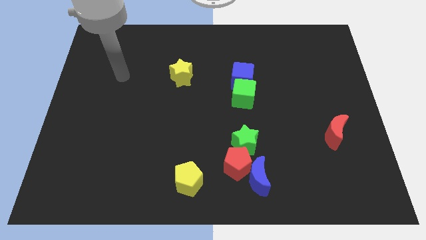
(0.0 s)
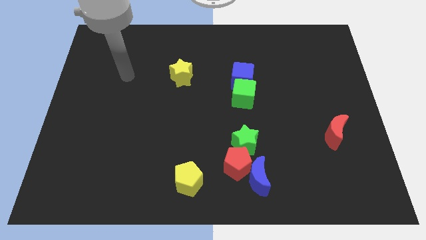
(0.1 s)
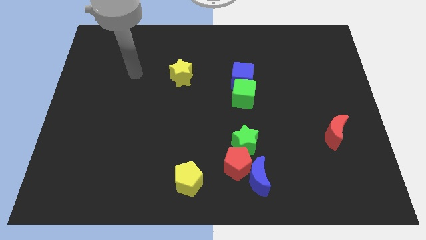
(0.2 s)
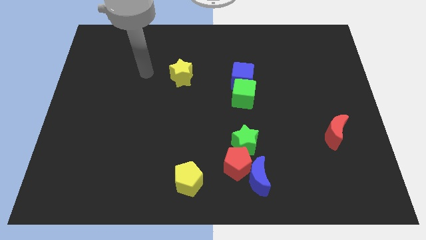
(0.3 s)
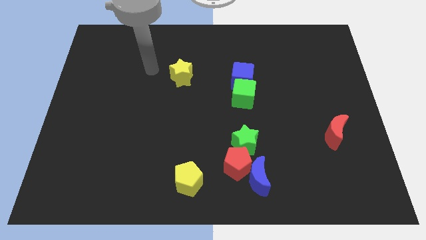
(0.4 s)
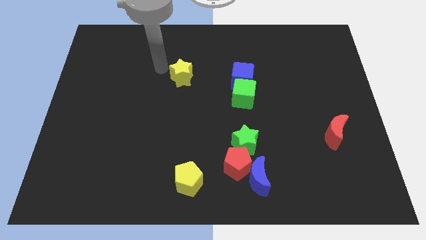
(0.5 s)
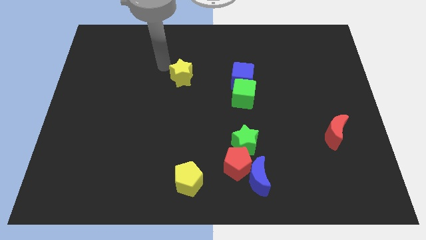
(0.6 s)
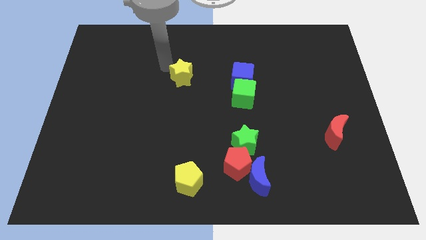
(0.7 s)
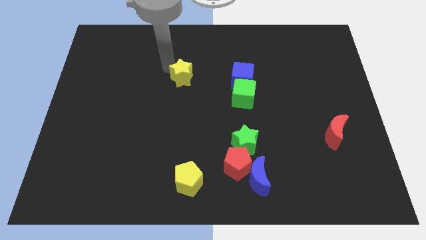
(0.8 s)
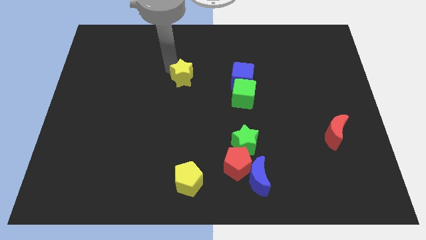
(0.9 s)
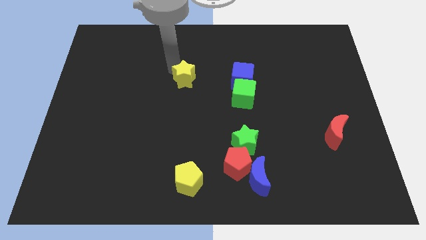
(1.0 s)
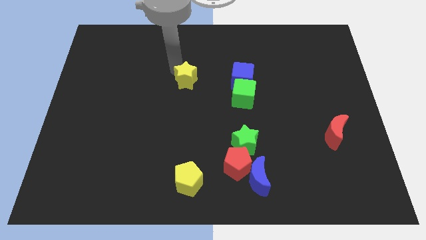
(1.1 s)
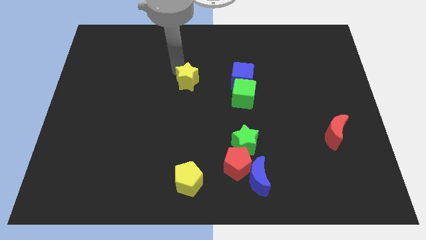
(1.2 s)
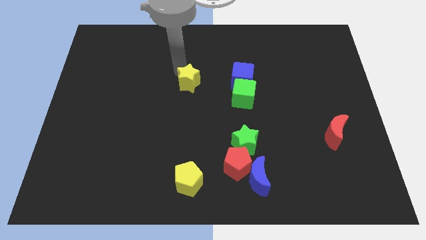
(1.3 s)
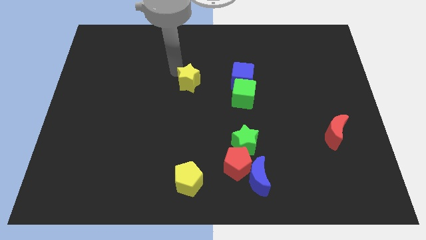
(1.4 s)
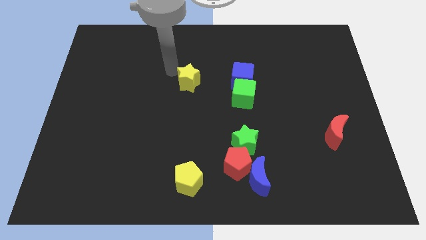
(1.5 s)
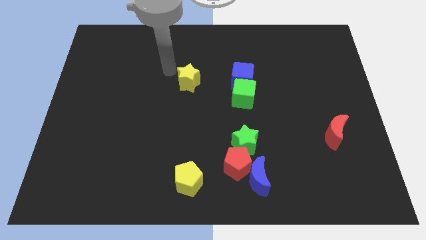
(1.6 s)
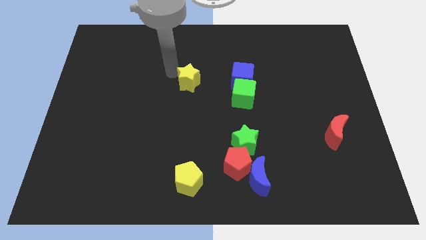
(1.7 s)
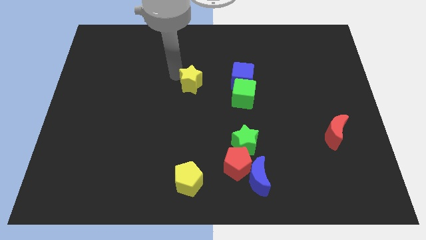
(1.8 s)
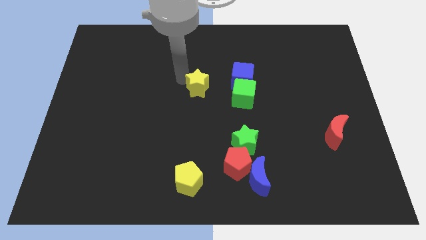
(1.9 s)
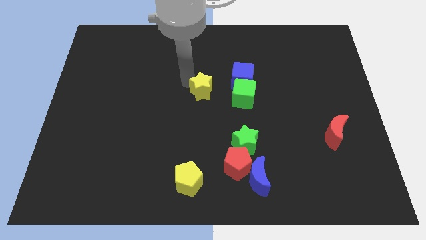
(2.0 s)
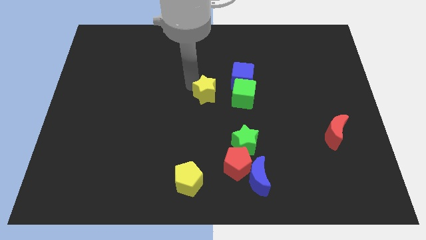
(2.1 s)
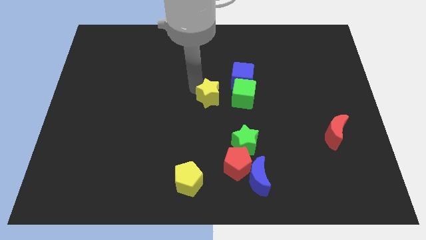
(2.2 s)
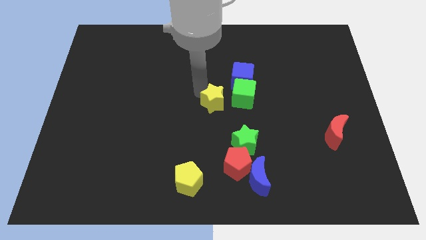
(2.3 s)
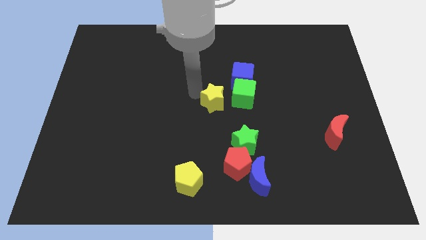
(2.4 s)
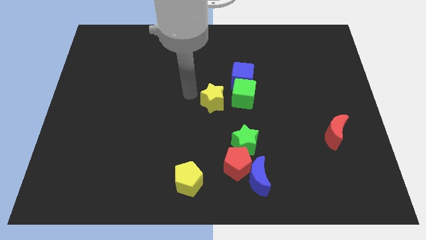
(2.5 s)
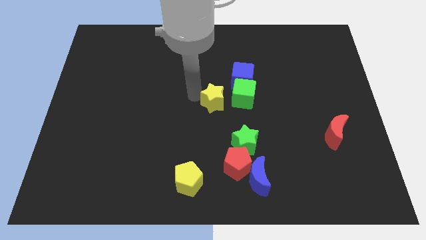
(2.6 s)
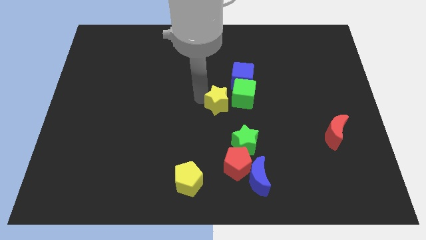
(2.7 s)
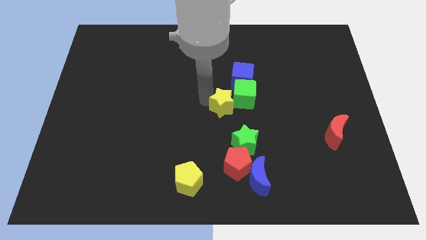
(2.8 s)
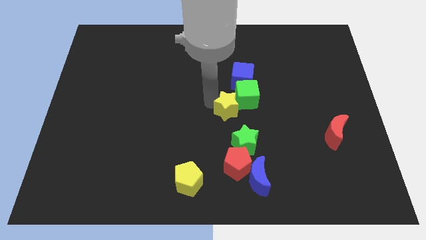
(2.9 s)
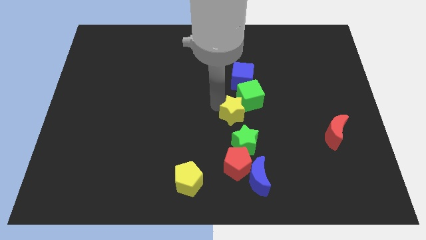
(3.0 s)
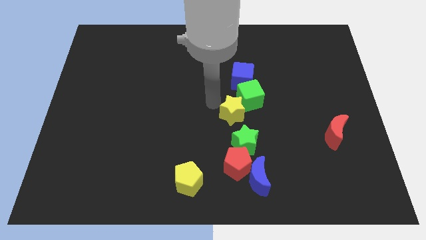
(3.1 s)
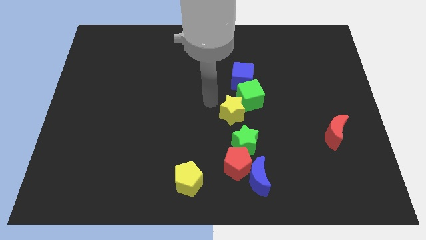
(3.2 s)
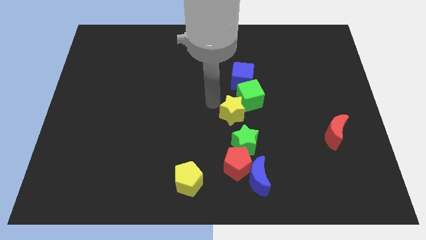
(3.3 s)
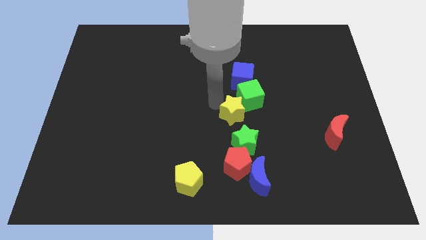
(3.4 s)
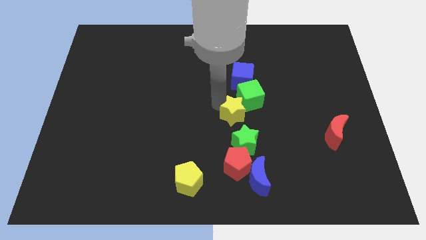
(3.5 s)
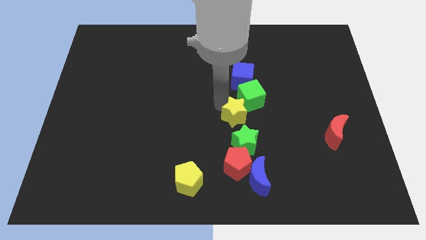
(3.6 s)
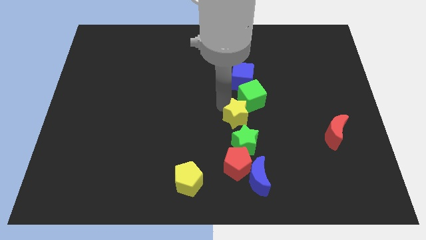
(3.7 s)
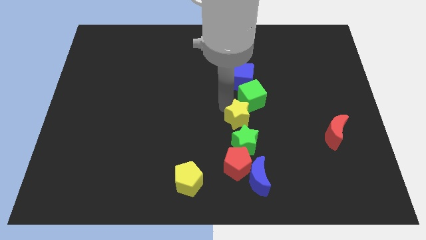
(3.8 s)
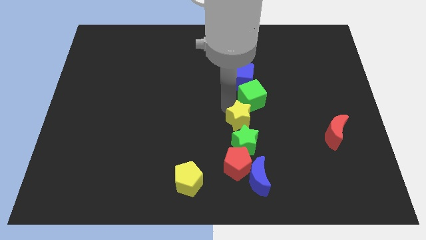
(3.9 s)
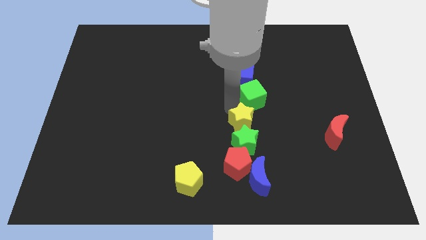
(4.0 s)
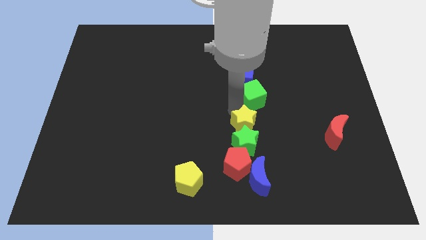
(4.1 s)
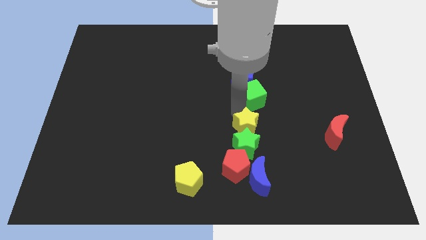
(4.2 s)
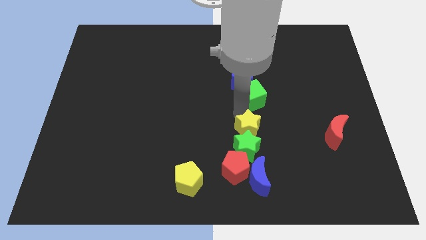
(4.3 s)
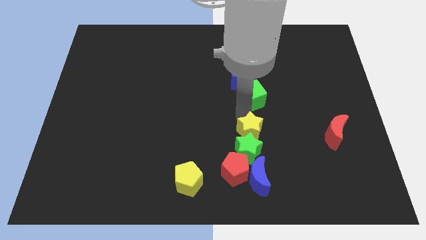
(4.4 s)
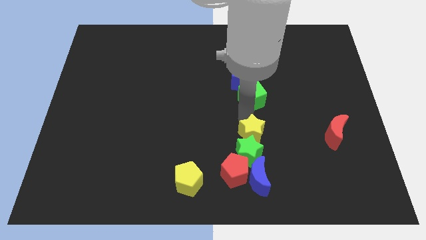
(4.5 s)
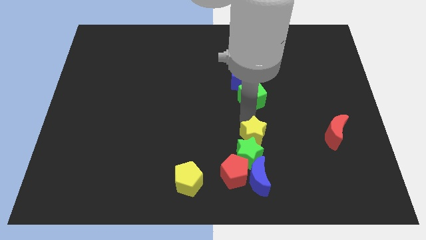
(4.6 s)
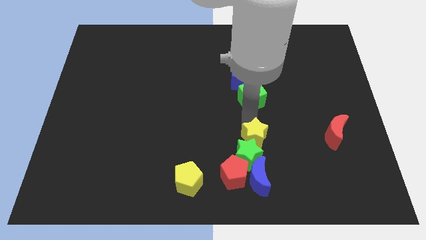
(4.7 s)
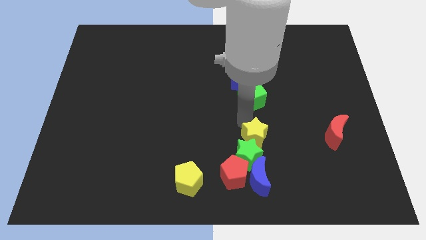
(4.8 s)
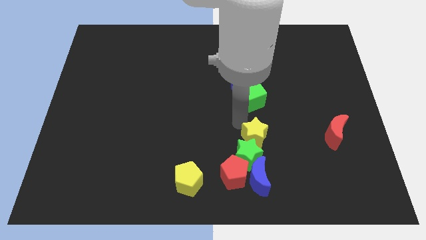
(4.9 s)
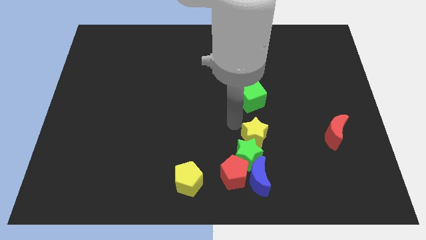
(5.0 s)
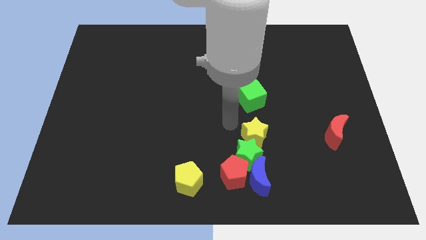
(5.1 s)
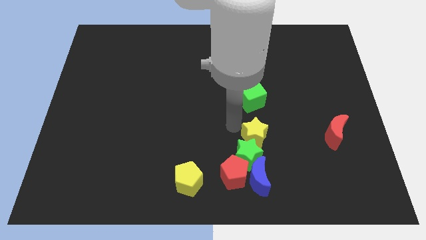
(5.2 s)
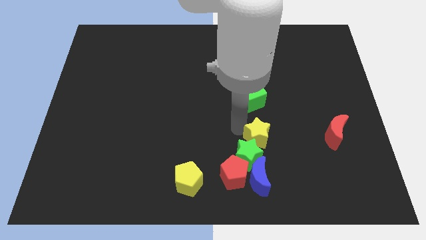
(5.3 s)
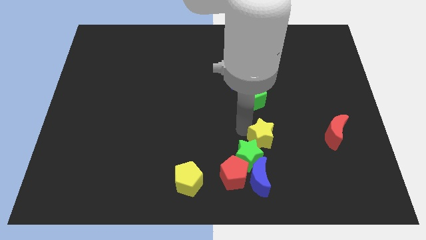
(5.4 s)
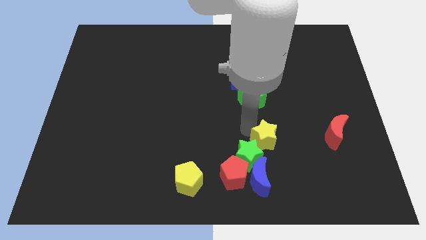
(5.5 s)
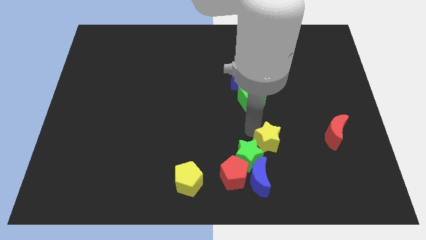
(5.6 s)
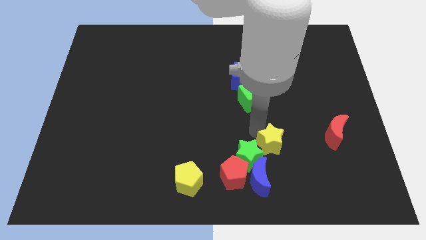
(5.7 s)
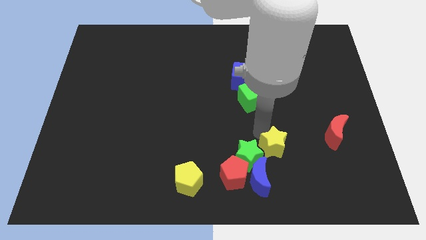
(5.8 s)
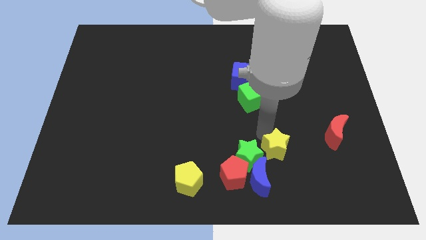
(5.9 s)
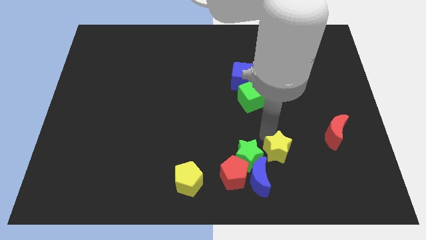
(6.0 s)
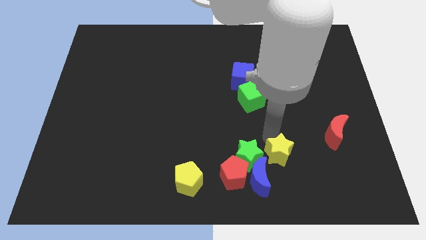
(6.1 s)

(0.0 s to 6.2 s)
put the yellow star to the right of the red pentagon
